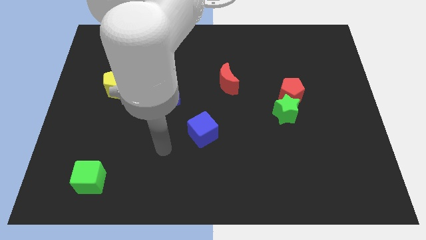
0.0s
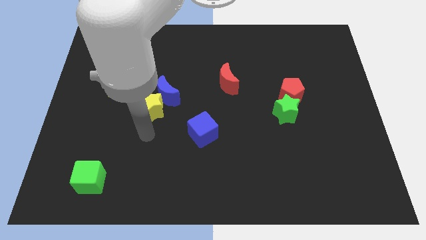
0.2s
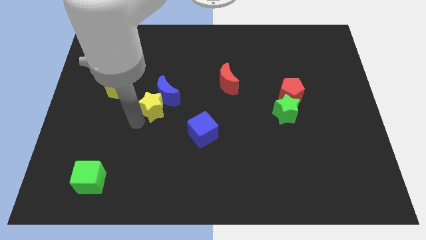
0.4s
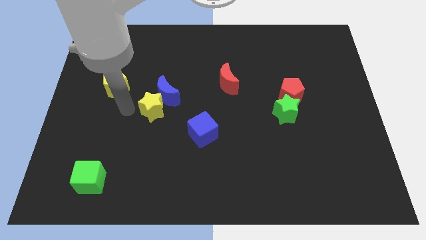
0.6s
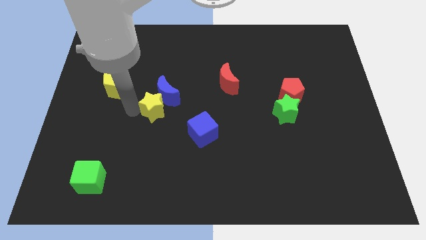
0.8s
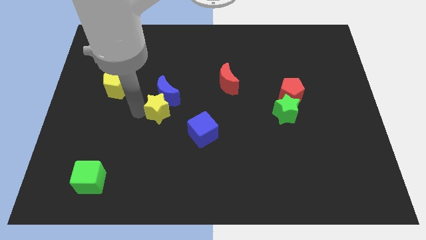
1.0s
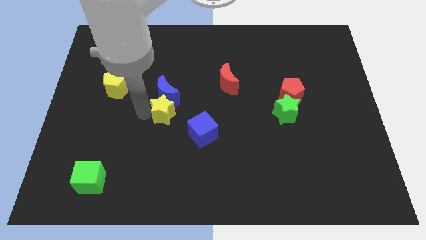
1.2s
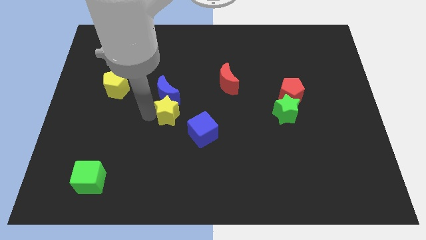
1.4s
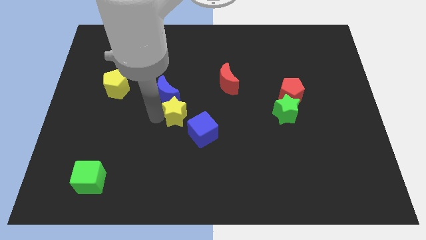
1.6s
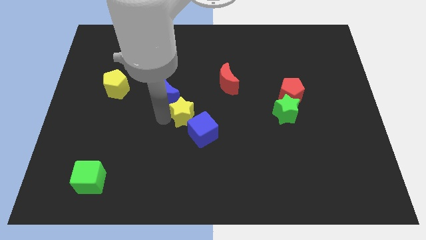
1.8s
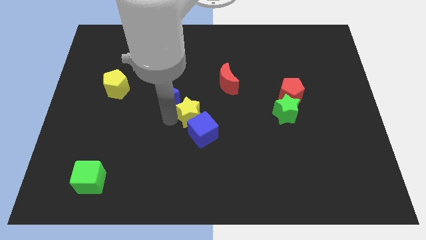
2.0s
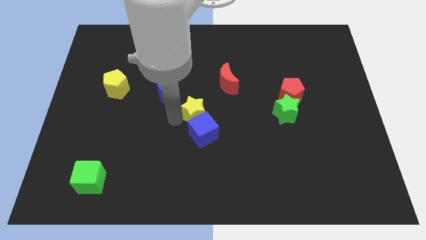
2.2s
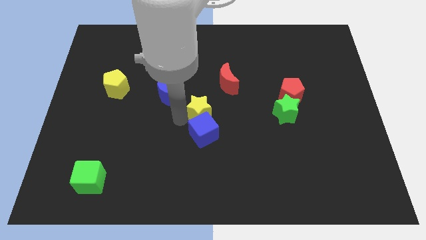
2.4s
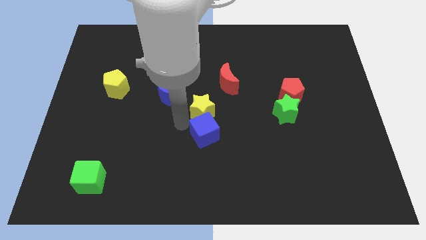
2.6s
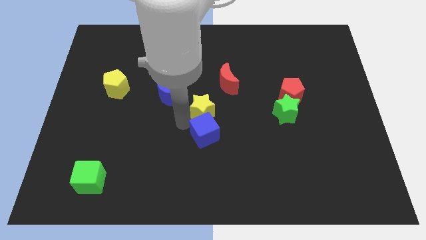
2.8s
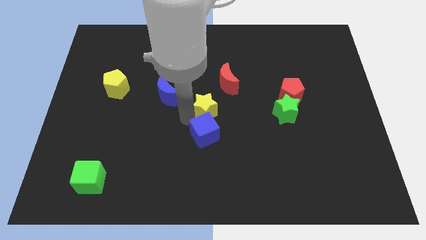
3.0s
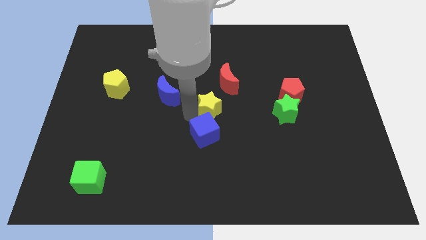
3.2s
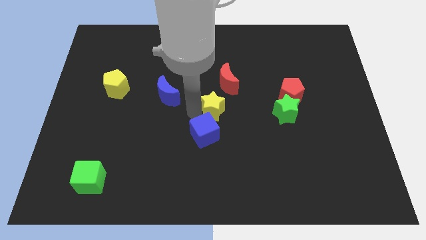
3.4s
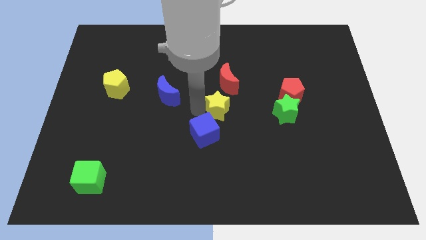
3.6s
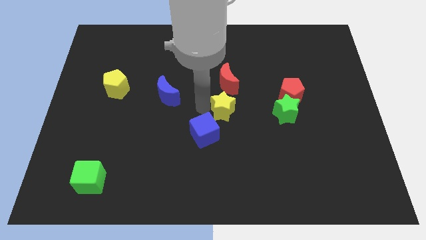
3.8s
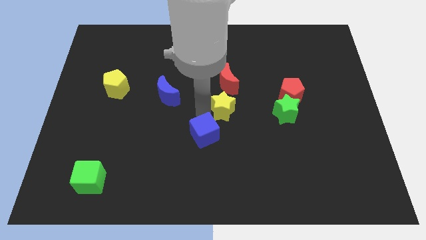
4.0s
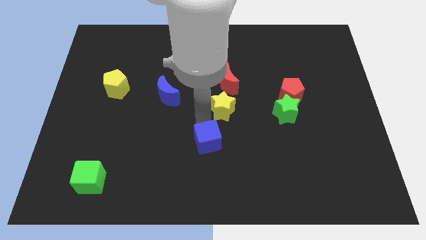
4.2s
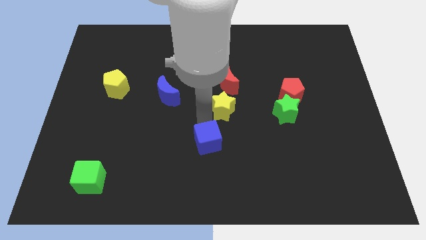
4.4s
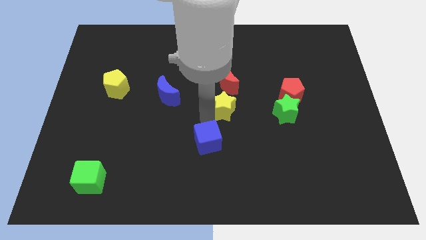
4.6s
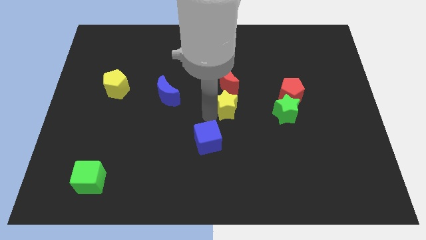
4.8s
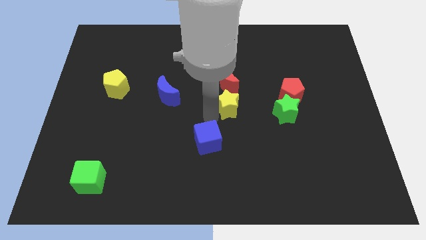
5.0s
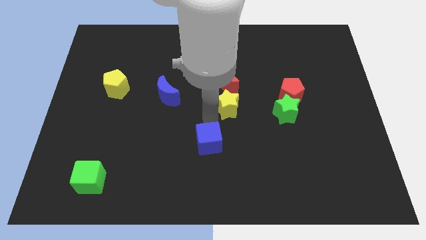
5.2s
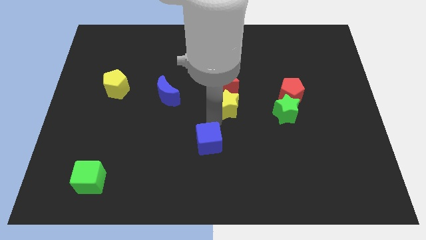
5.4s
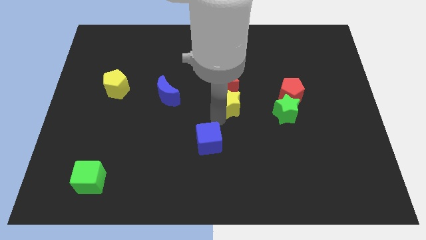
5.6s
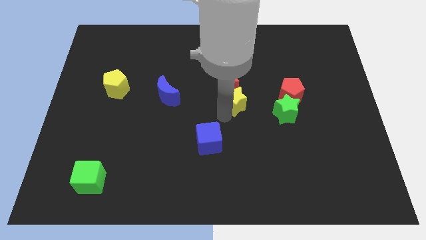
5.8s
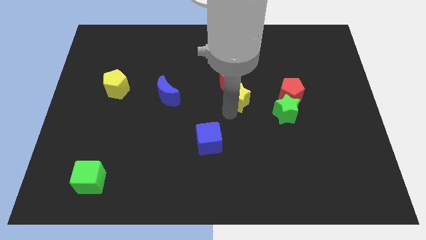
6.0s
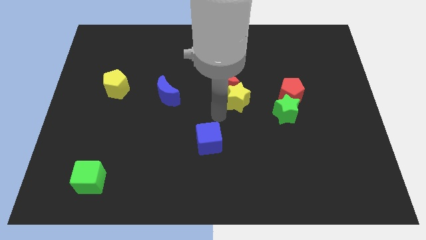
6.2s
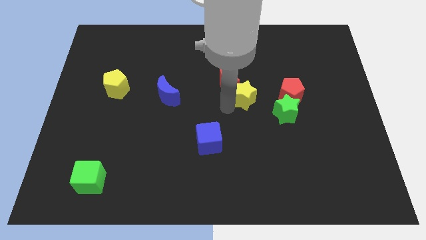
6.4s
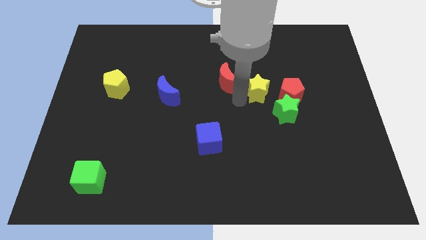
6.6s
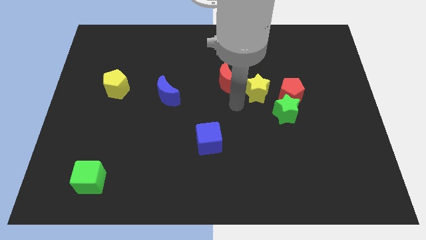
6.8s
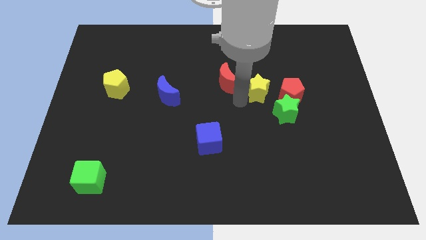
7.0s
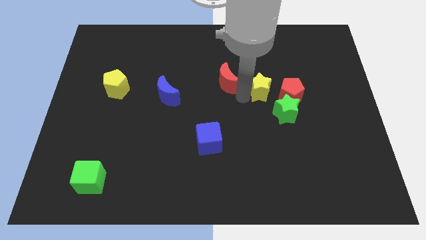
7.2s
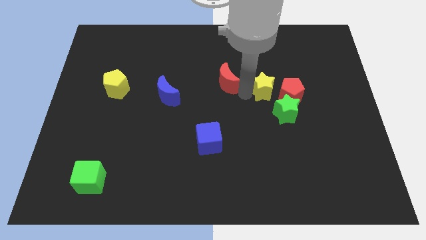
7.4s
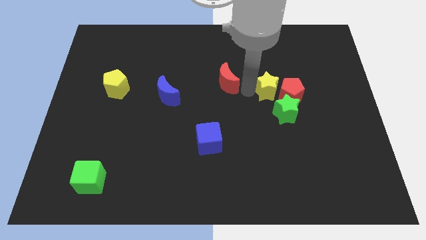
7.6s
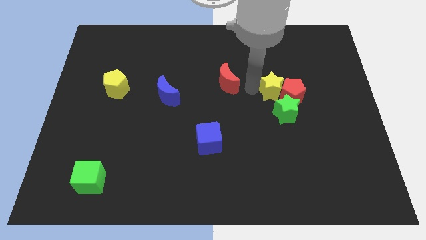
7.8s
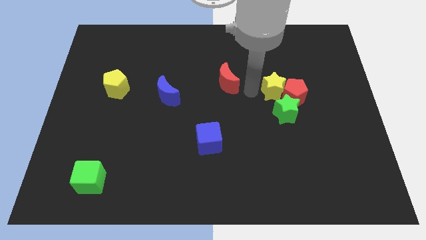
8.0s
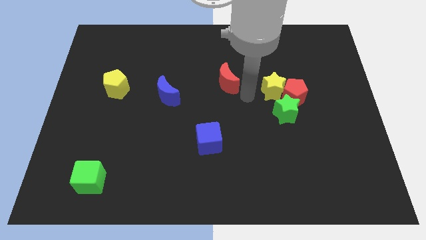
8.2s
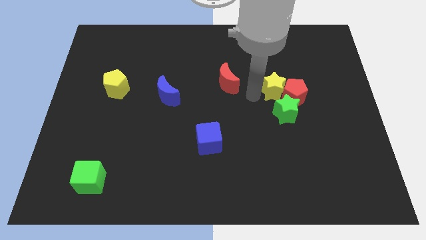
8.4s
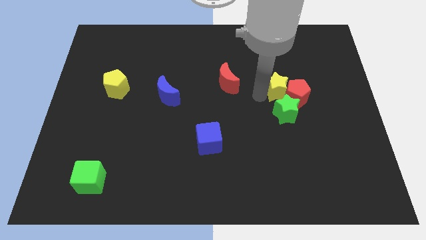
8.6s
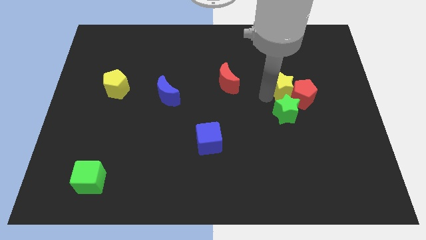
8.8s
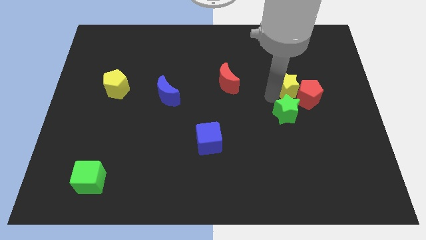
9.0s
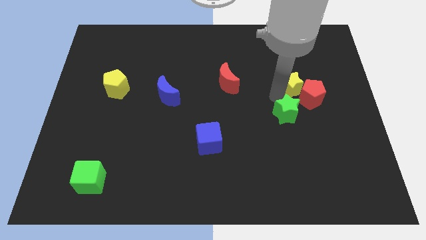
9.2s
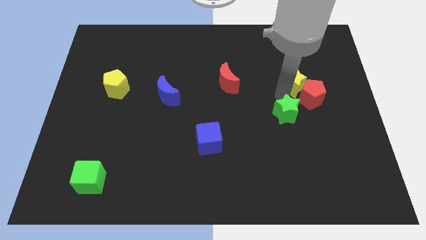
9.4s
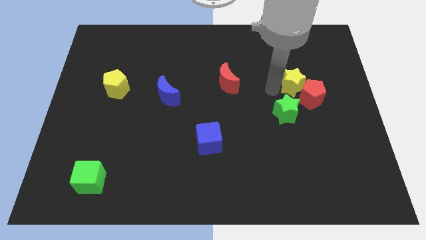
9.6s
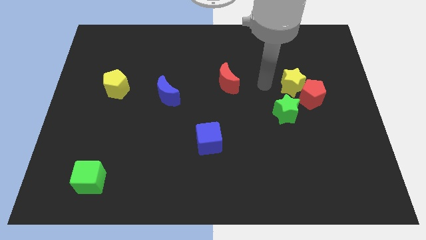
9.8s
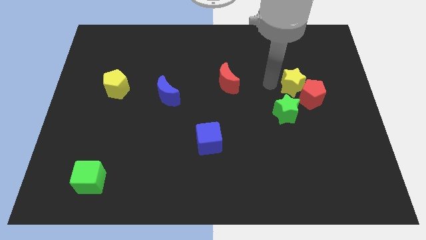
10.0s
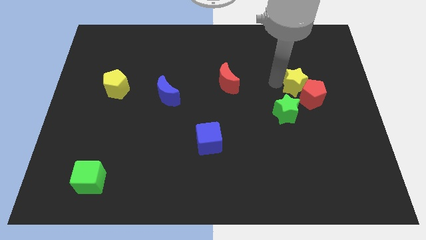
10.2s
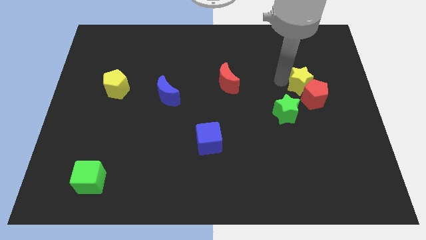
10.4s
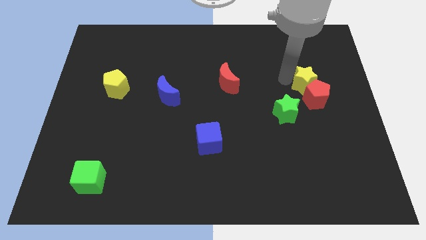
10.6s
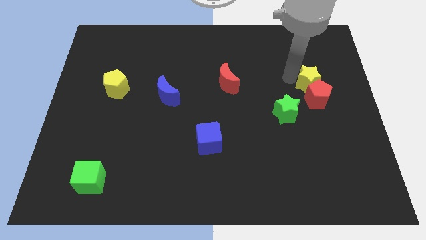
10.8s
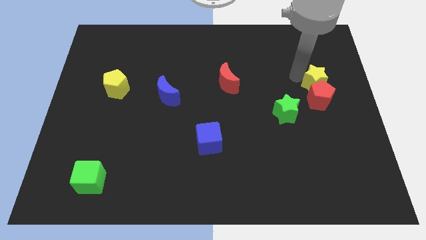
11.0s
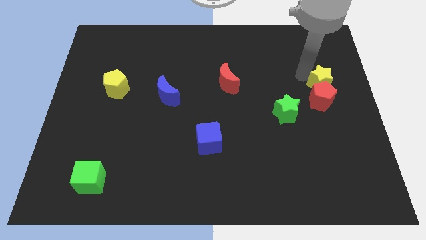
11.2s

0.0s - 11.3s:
push the yellow star to the right side

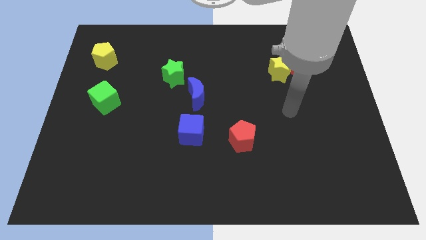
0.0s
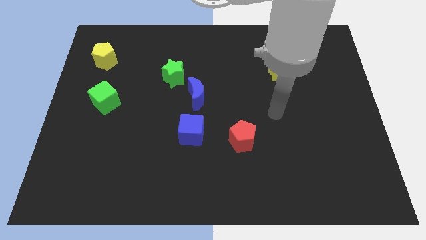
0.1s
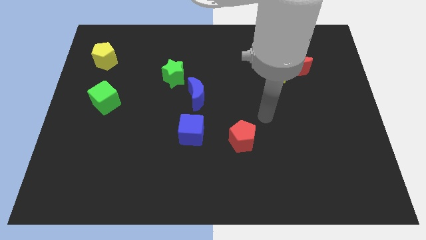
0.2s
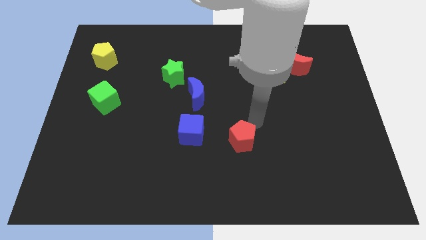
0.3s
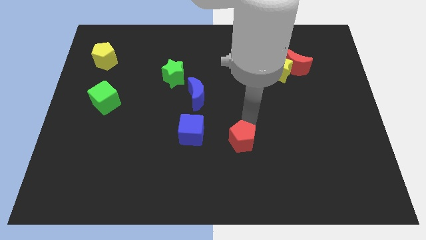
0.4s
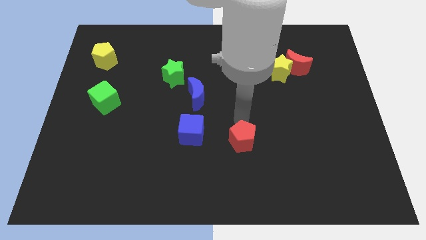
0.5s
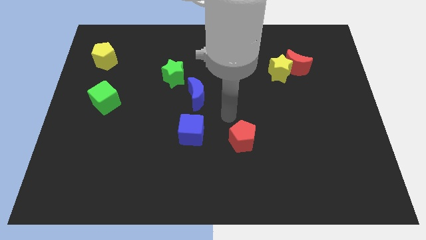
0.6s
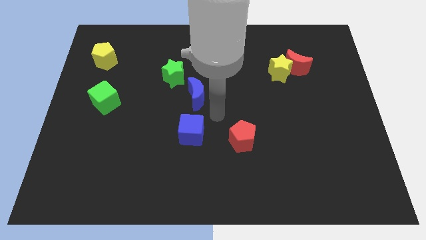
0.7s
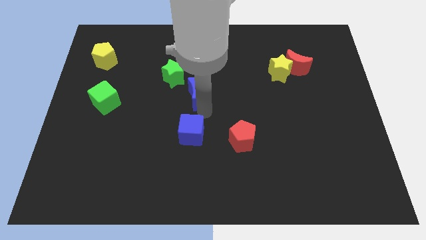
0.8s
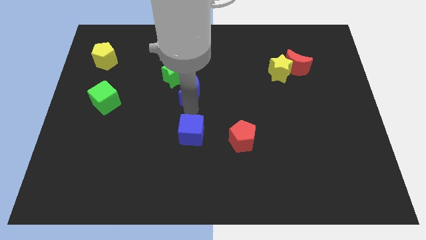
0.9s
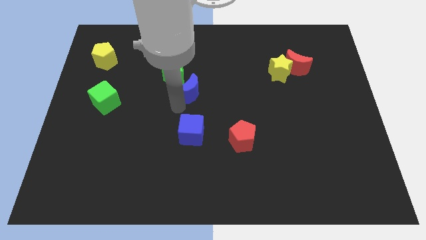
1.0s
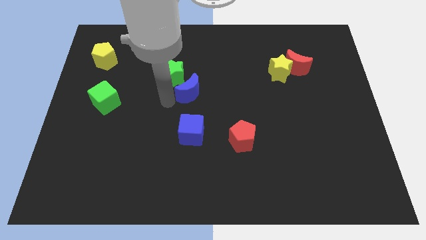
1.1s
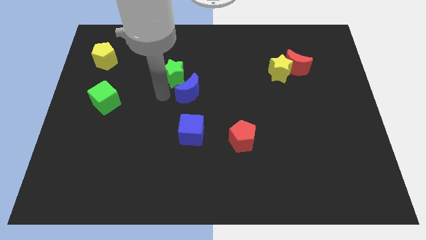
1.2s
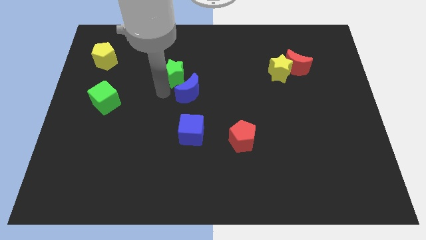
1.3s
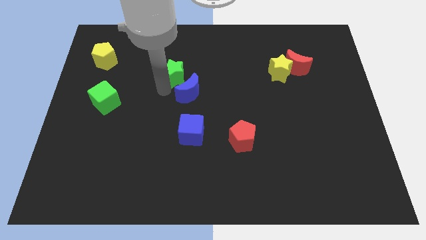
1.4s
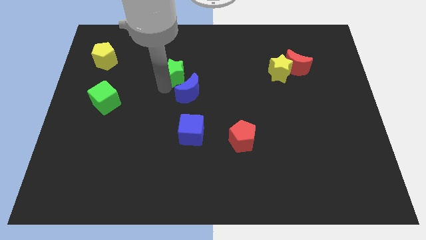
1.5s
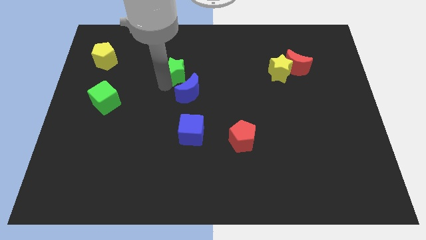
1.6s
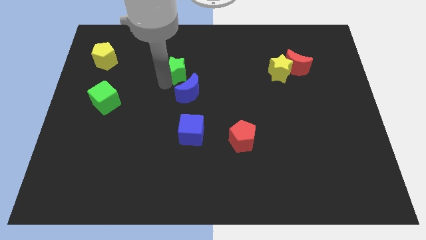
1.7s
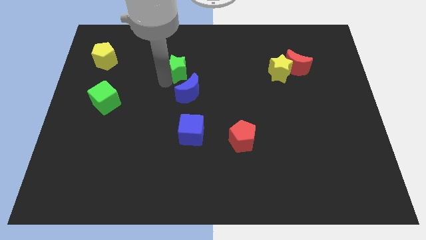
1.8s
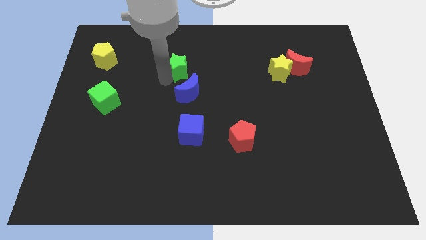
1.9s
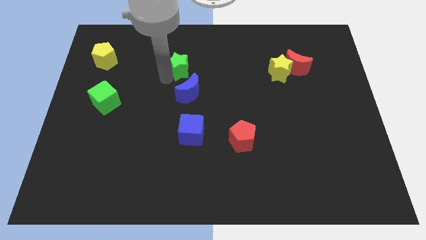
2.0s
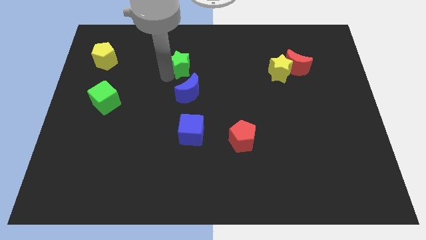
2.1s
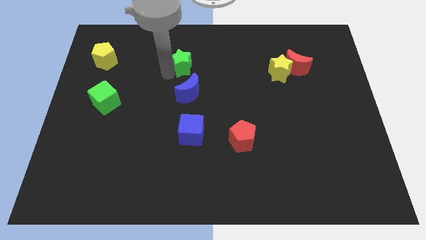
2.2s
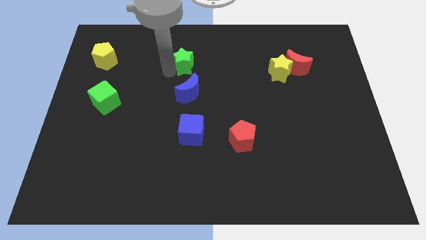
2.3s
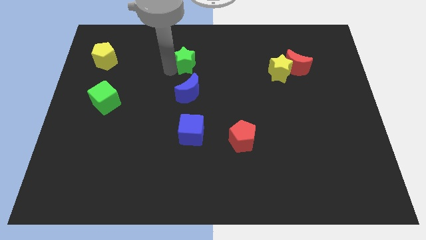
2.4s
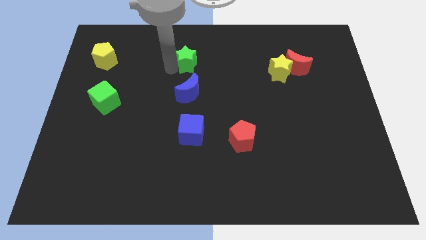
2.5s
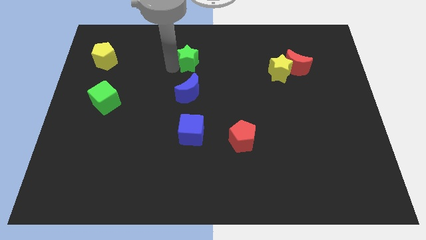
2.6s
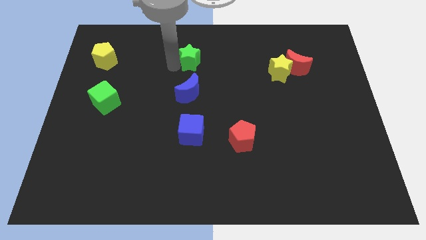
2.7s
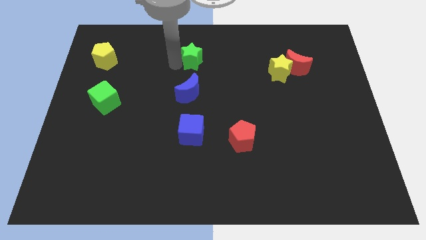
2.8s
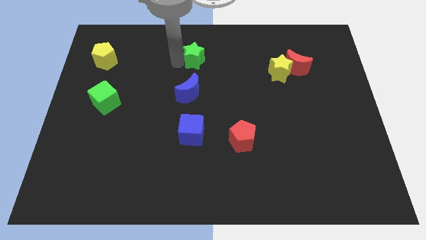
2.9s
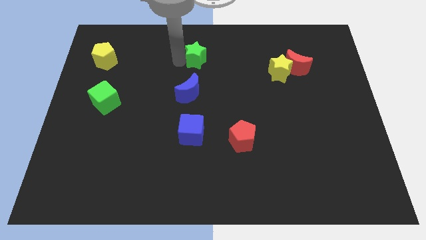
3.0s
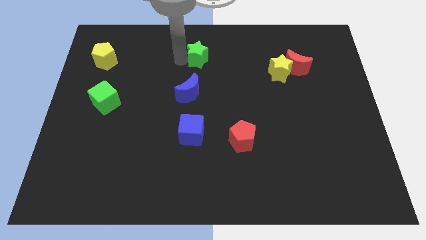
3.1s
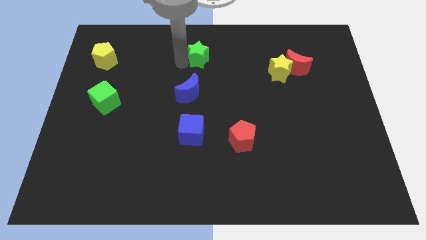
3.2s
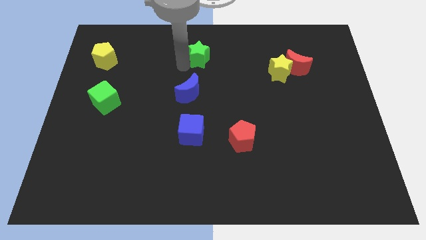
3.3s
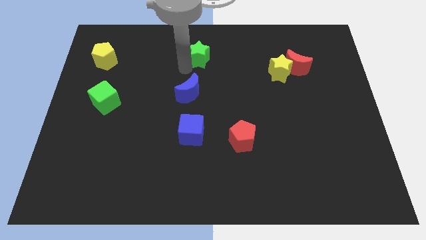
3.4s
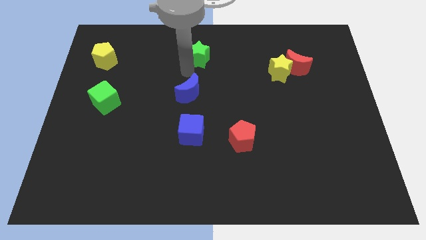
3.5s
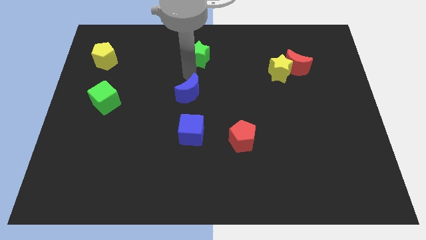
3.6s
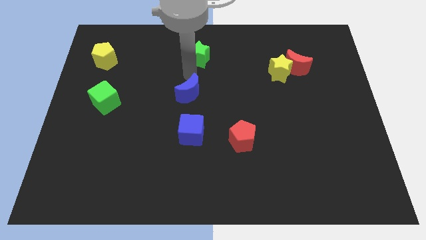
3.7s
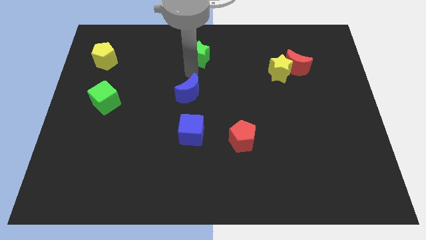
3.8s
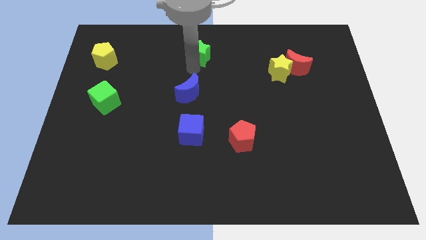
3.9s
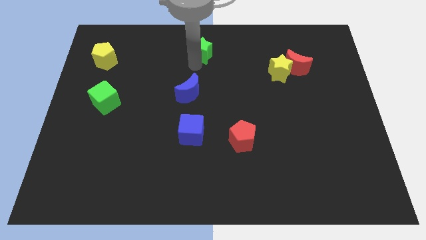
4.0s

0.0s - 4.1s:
move the green star to the towards your base
